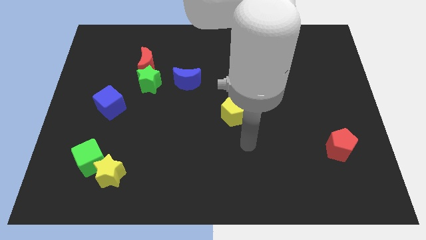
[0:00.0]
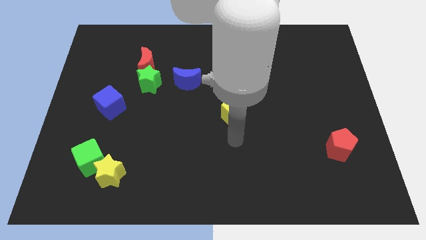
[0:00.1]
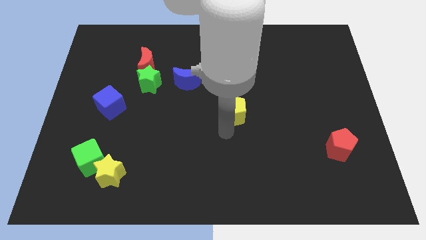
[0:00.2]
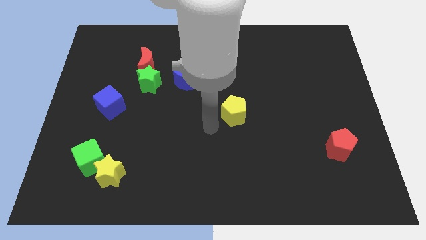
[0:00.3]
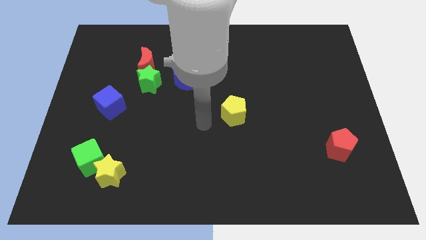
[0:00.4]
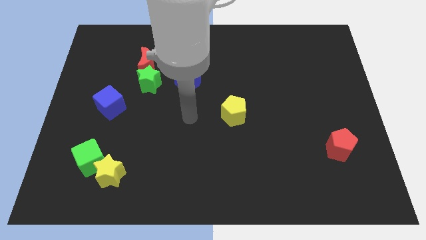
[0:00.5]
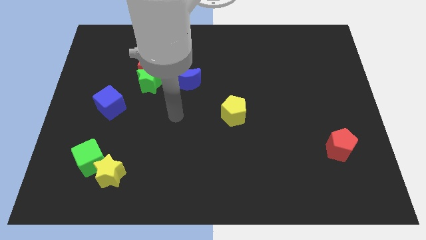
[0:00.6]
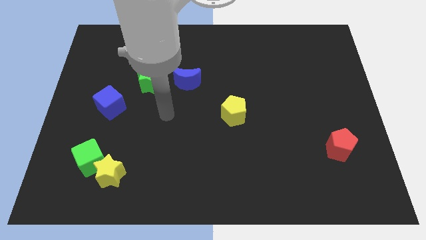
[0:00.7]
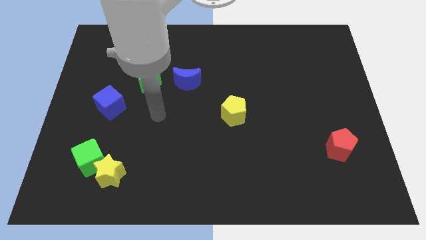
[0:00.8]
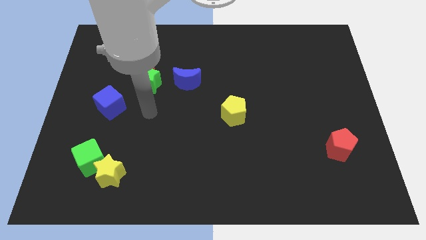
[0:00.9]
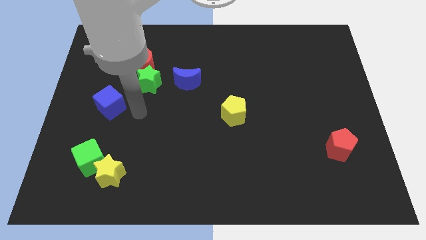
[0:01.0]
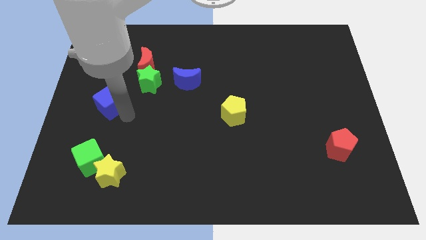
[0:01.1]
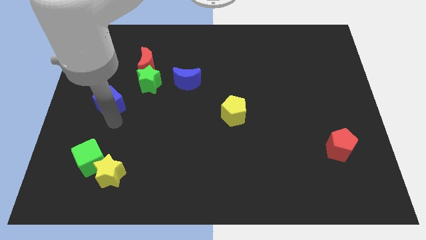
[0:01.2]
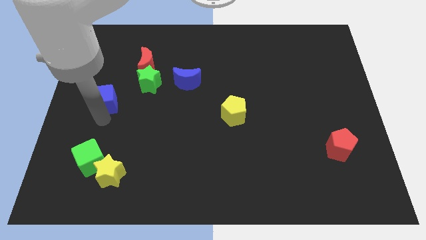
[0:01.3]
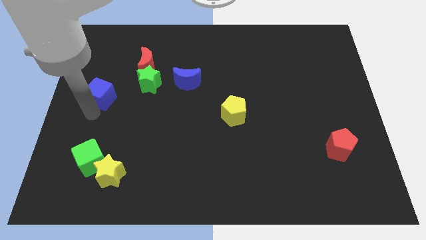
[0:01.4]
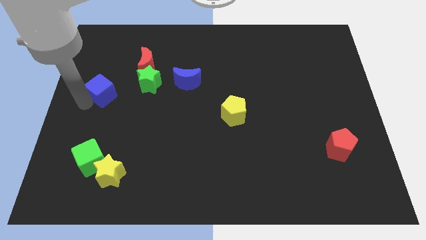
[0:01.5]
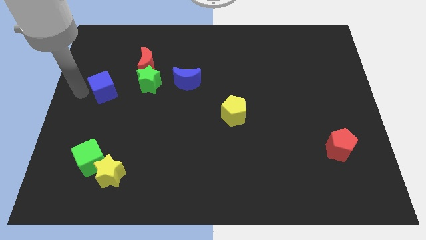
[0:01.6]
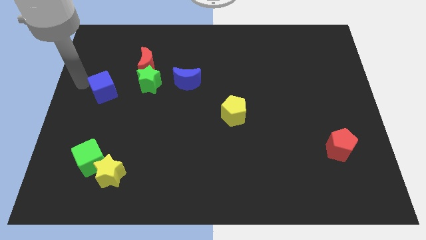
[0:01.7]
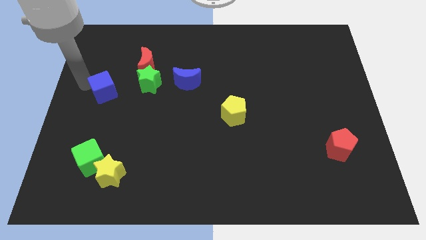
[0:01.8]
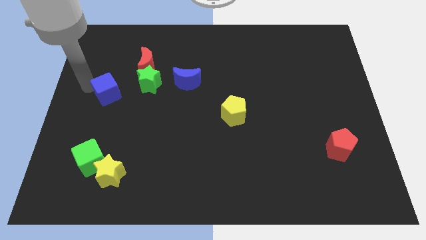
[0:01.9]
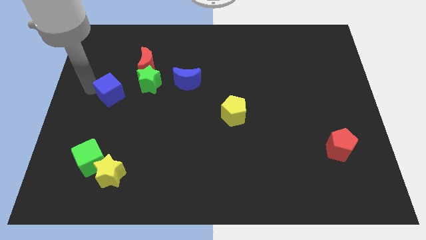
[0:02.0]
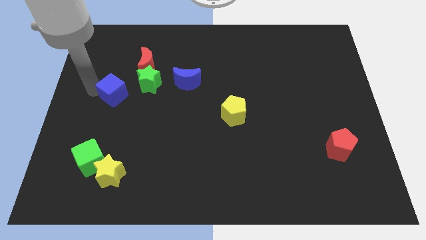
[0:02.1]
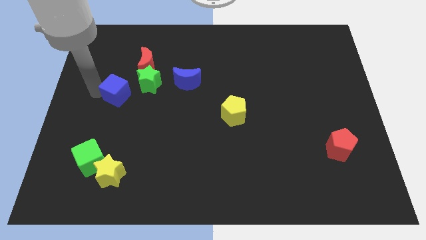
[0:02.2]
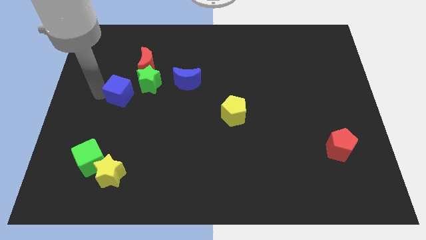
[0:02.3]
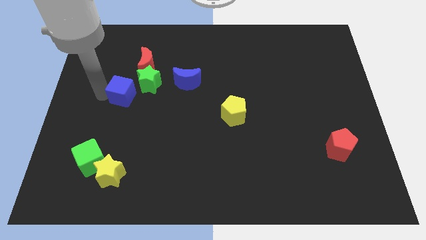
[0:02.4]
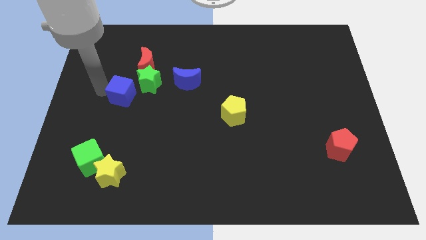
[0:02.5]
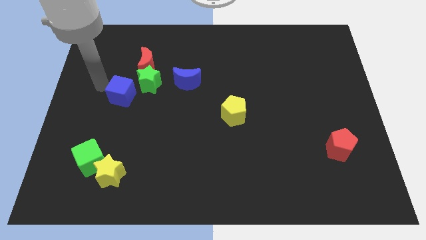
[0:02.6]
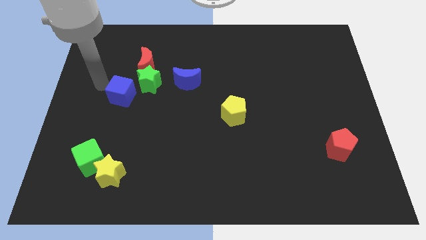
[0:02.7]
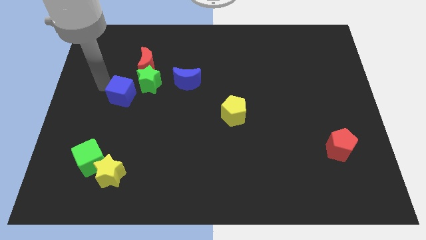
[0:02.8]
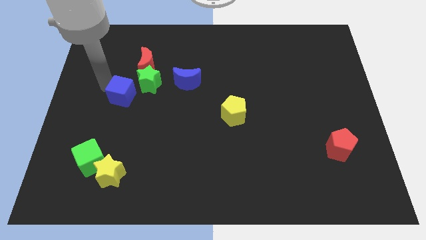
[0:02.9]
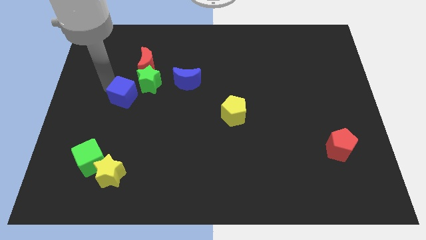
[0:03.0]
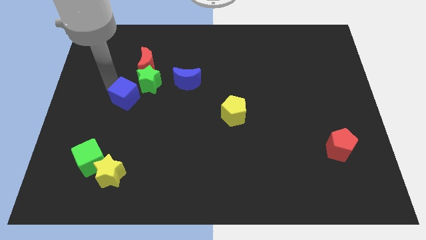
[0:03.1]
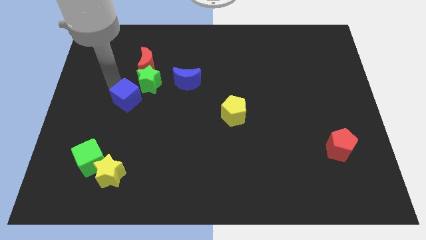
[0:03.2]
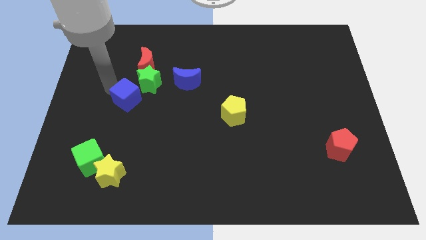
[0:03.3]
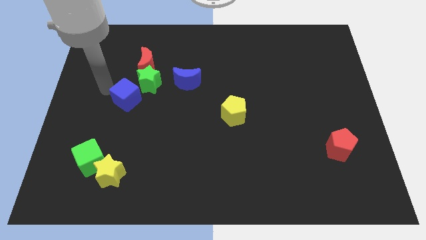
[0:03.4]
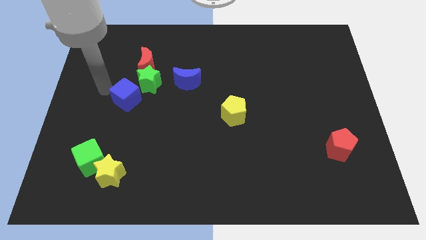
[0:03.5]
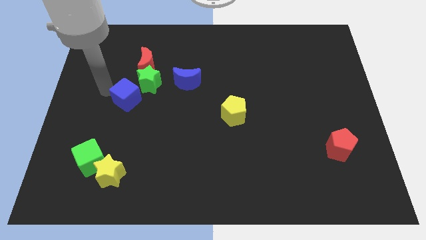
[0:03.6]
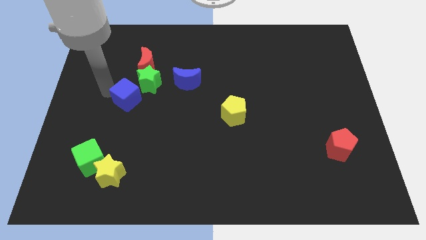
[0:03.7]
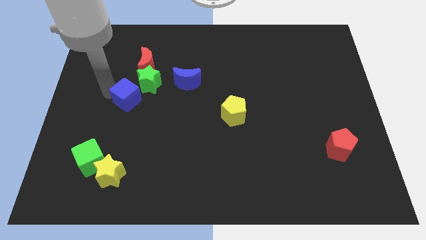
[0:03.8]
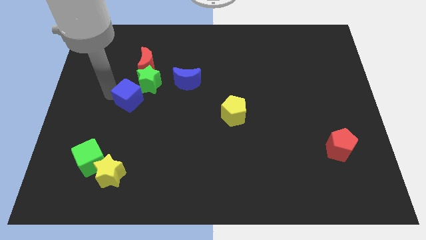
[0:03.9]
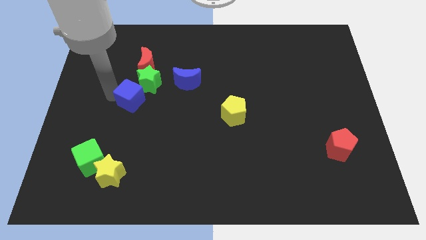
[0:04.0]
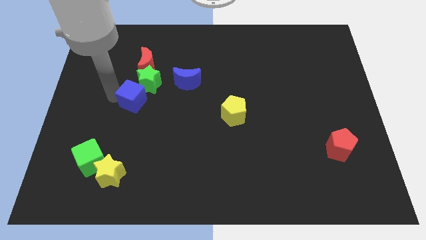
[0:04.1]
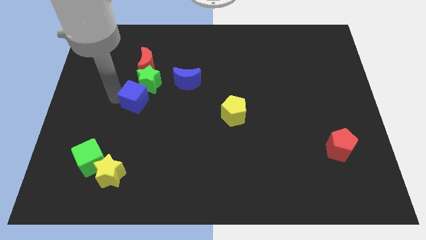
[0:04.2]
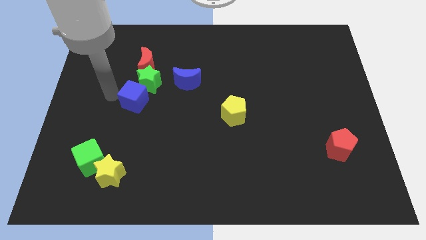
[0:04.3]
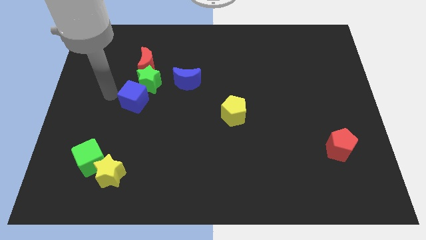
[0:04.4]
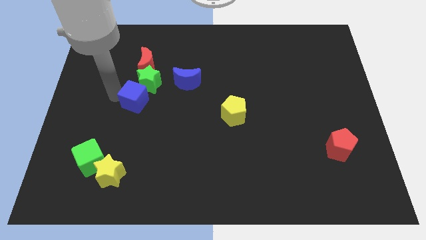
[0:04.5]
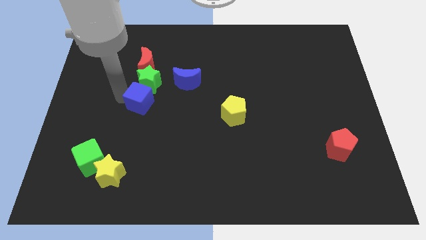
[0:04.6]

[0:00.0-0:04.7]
slightly push the blue cube to the right

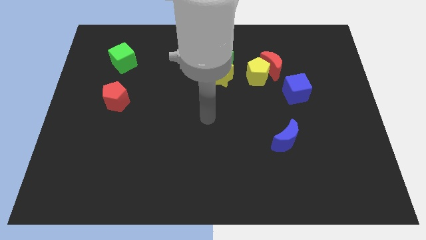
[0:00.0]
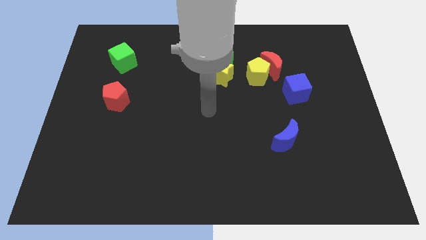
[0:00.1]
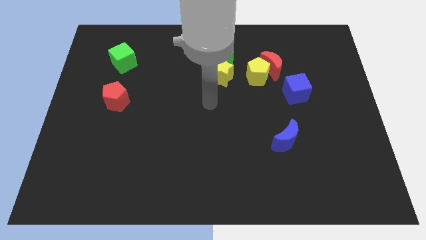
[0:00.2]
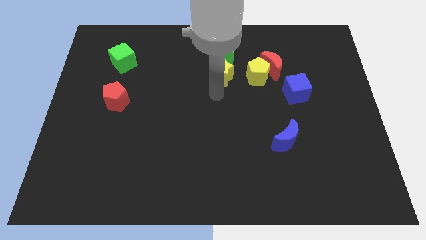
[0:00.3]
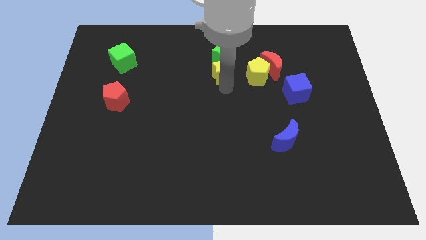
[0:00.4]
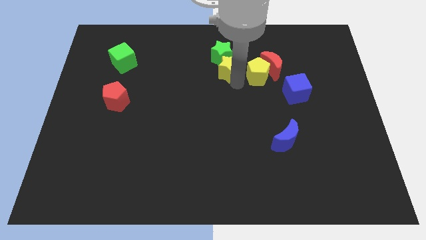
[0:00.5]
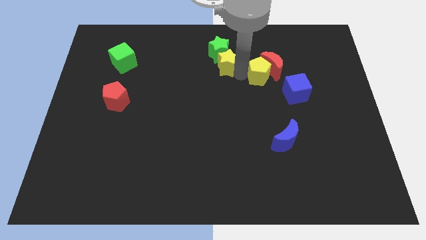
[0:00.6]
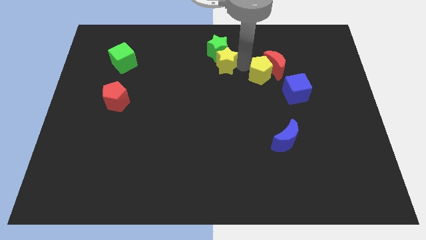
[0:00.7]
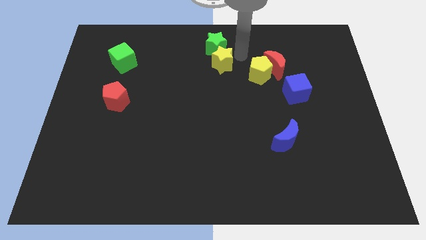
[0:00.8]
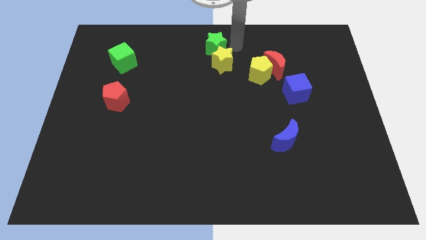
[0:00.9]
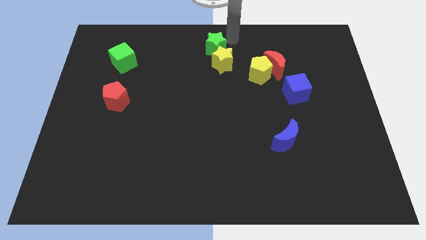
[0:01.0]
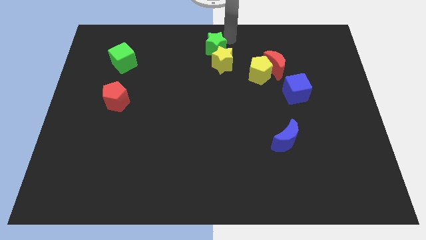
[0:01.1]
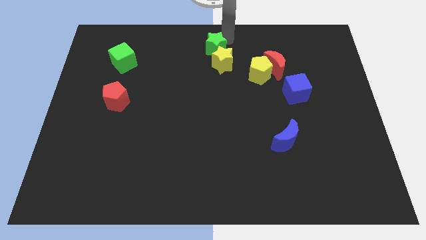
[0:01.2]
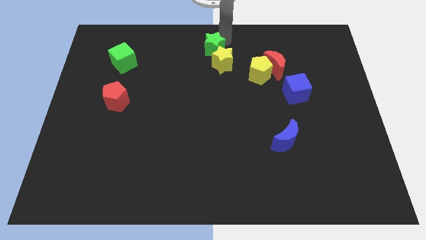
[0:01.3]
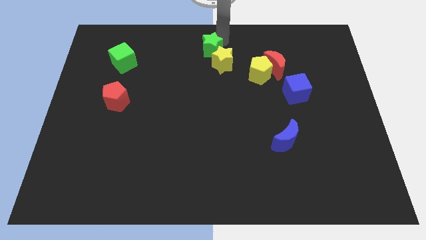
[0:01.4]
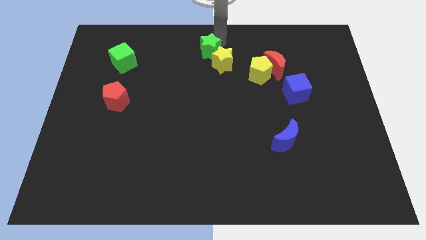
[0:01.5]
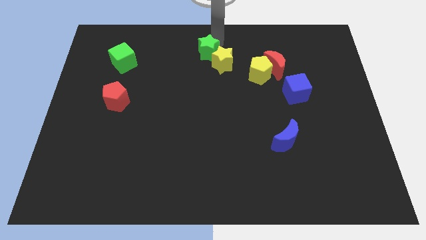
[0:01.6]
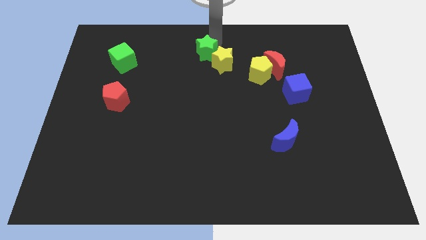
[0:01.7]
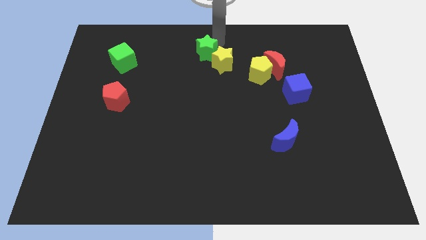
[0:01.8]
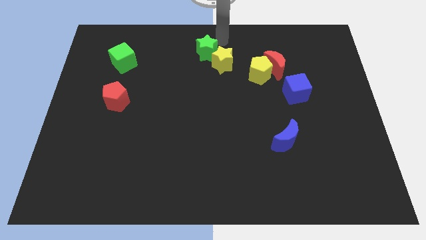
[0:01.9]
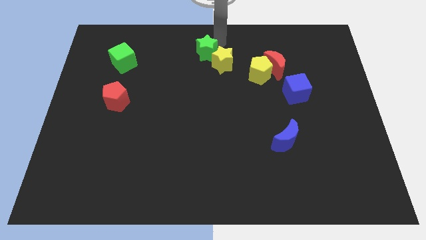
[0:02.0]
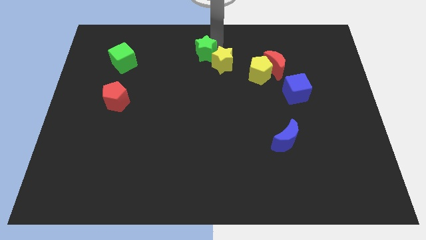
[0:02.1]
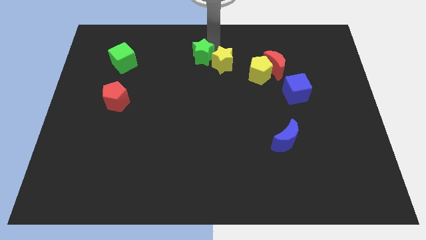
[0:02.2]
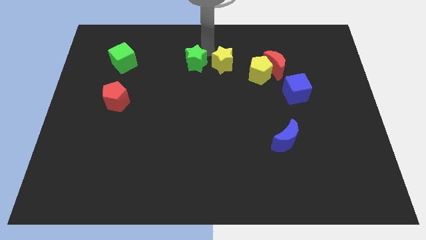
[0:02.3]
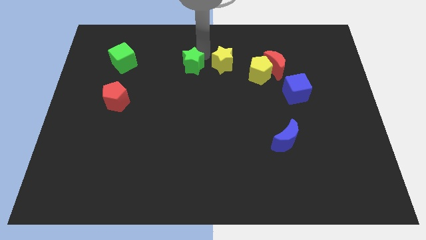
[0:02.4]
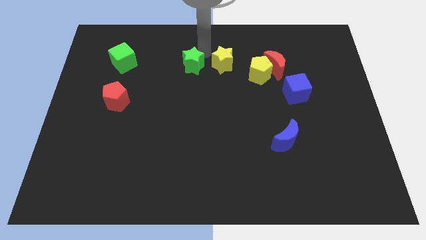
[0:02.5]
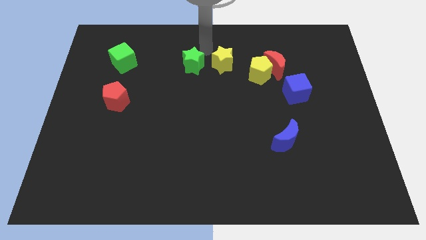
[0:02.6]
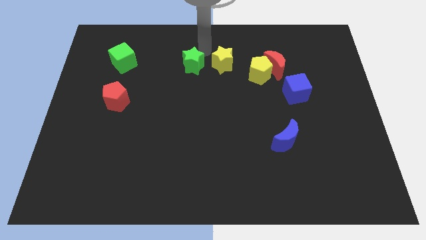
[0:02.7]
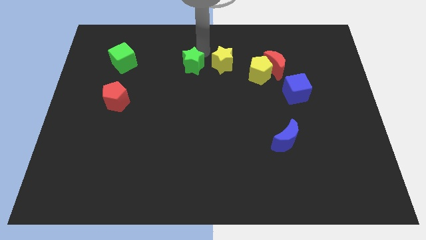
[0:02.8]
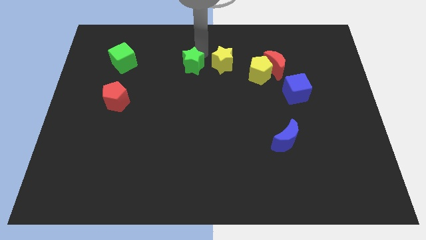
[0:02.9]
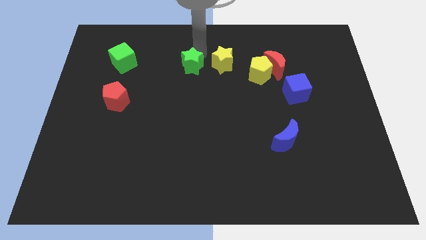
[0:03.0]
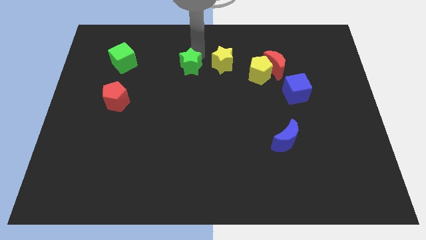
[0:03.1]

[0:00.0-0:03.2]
slightly push the green star diagonally downwards and left

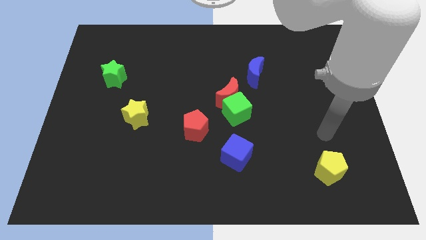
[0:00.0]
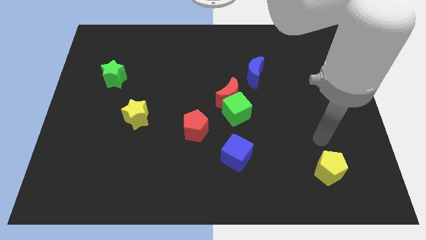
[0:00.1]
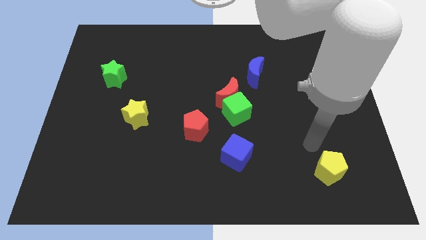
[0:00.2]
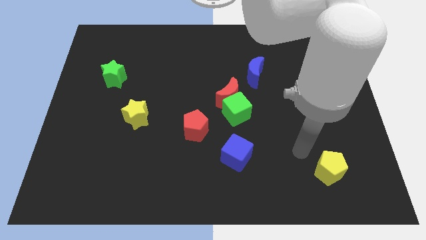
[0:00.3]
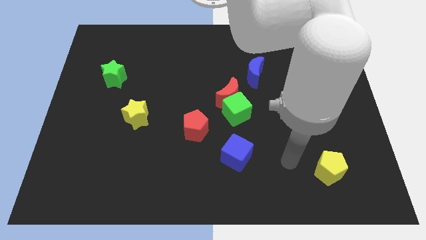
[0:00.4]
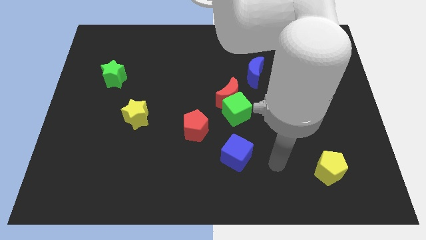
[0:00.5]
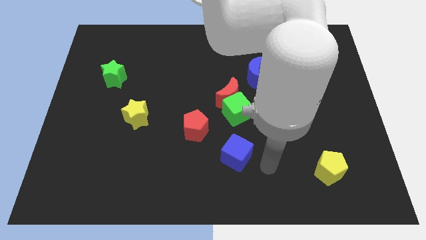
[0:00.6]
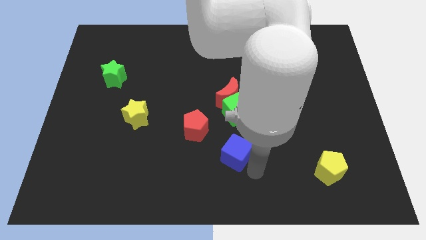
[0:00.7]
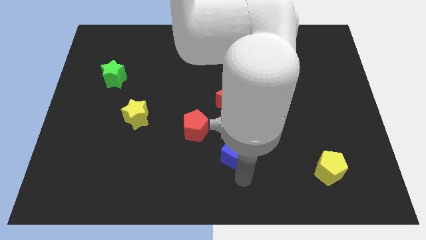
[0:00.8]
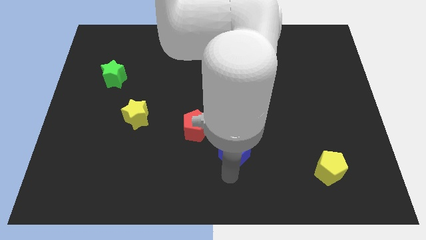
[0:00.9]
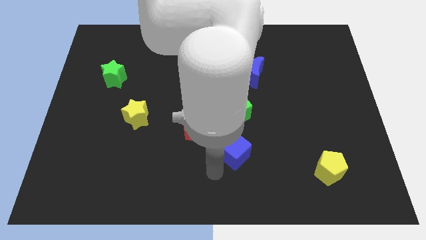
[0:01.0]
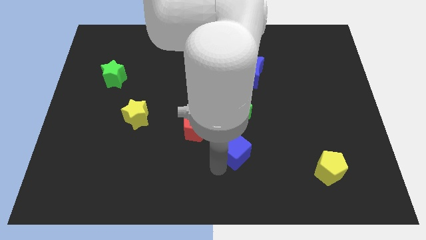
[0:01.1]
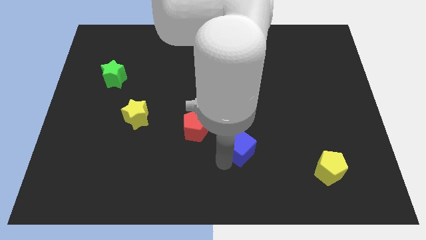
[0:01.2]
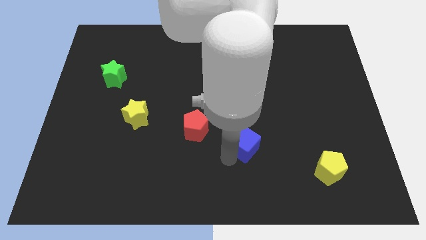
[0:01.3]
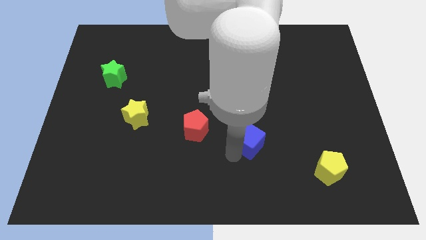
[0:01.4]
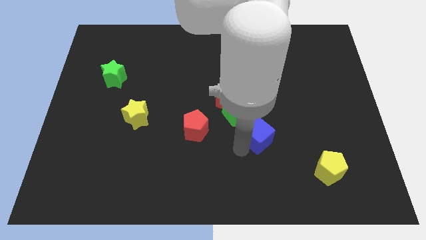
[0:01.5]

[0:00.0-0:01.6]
slide the blue cube diagonally up and to the right a little bit
